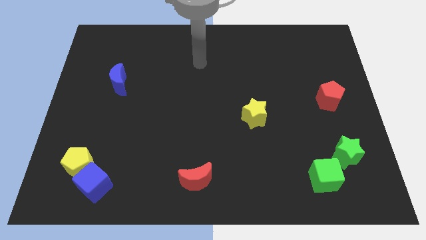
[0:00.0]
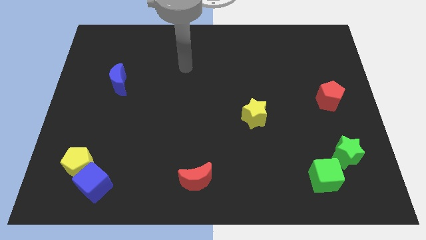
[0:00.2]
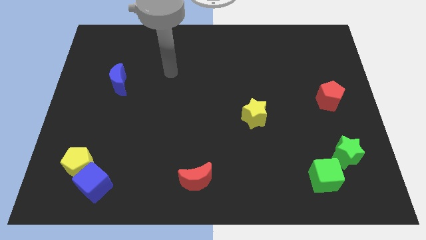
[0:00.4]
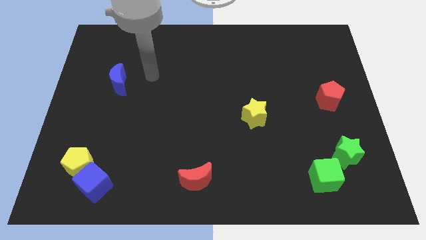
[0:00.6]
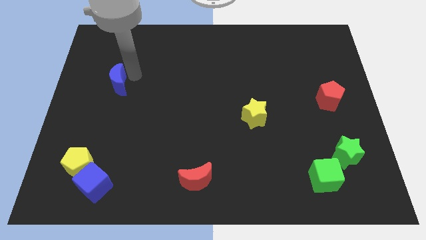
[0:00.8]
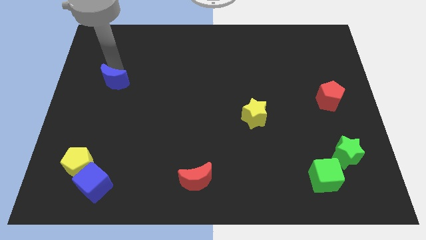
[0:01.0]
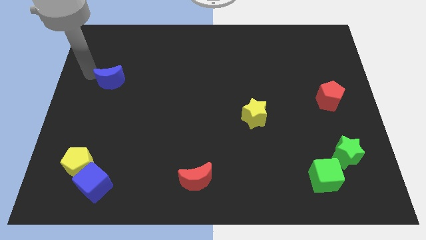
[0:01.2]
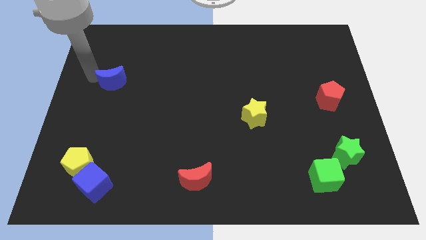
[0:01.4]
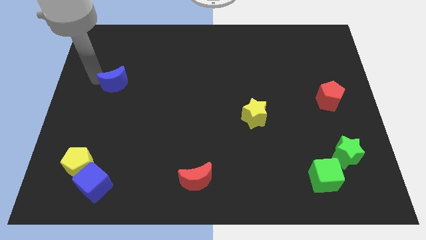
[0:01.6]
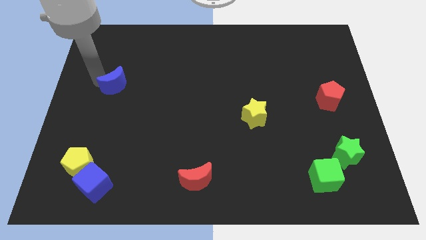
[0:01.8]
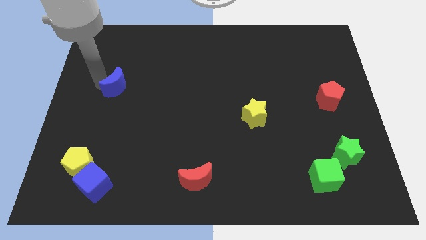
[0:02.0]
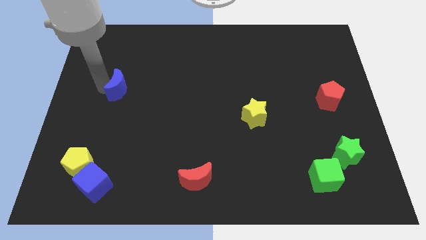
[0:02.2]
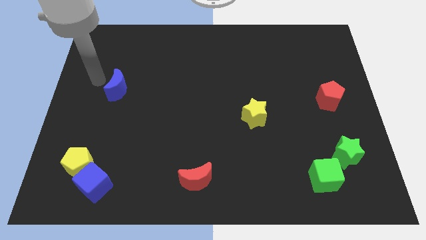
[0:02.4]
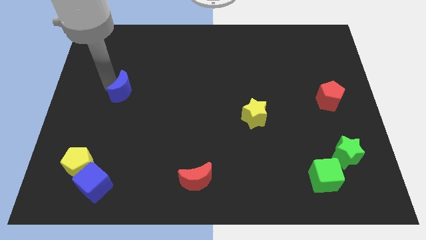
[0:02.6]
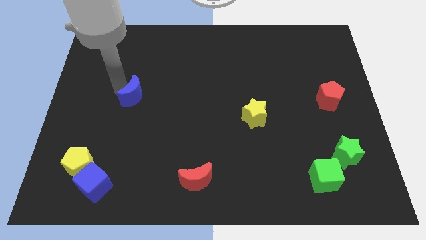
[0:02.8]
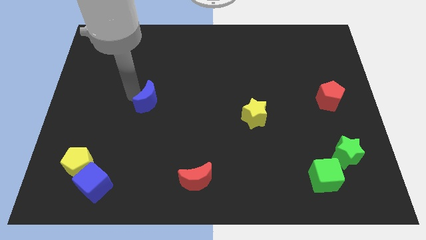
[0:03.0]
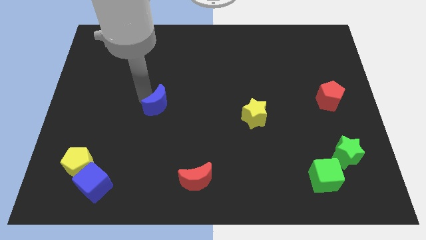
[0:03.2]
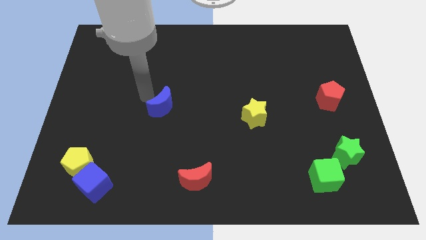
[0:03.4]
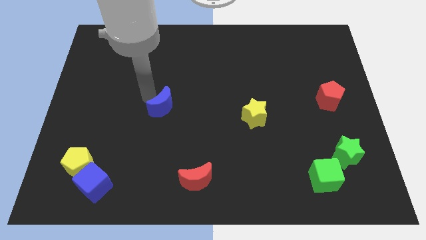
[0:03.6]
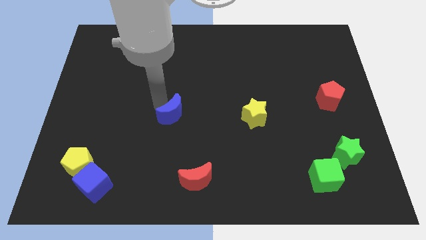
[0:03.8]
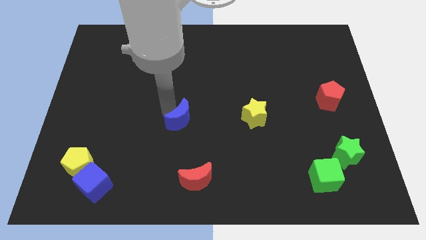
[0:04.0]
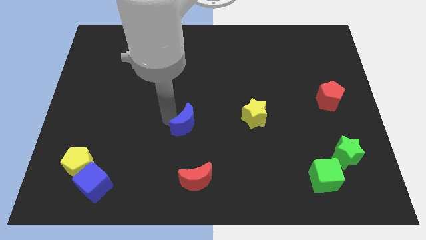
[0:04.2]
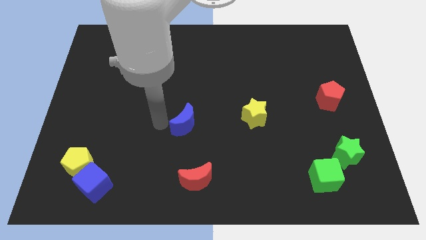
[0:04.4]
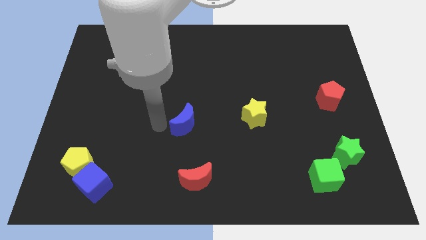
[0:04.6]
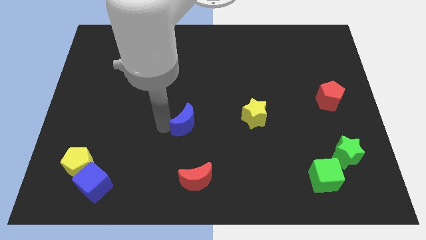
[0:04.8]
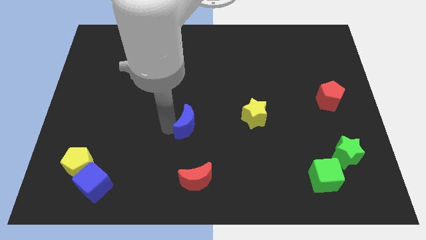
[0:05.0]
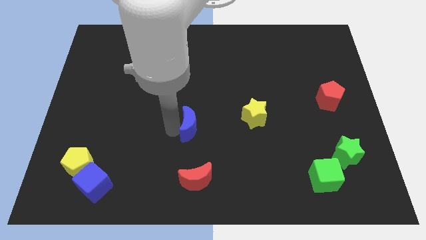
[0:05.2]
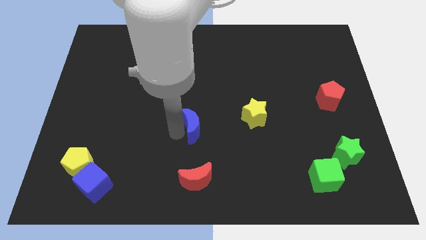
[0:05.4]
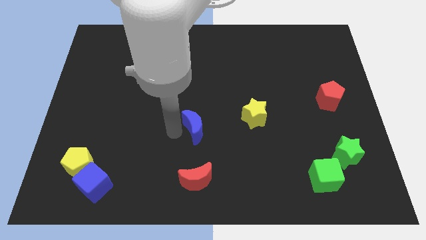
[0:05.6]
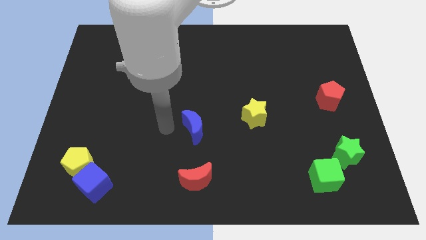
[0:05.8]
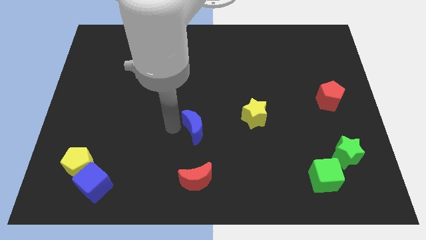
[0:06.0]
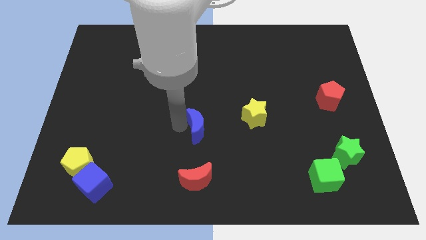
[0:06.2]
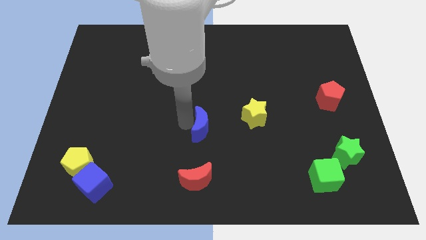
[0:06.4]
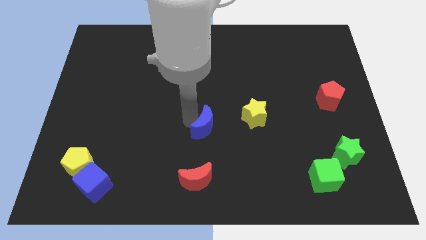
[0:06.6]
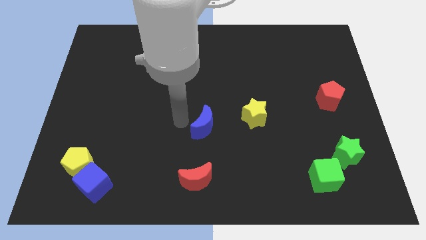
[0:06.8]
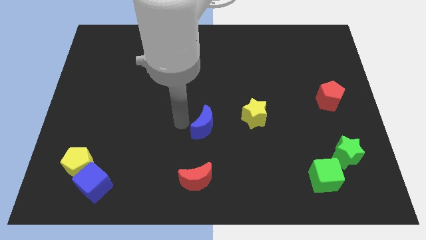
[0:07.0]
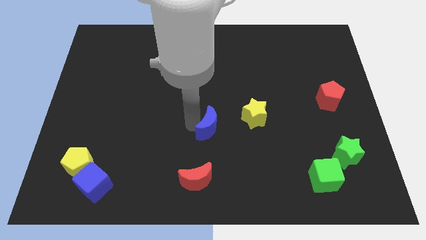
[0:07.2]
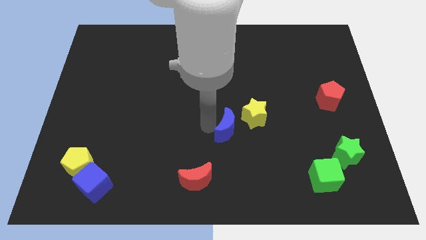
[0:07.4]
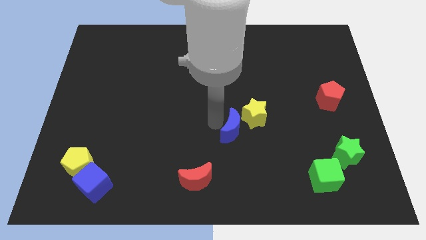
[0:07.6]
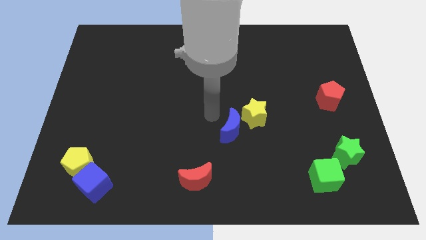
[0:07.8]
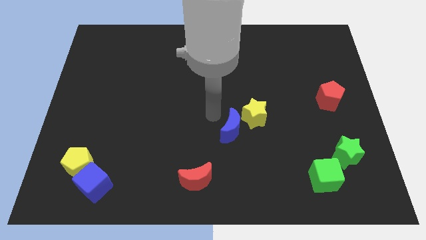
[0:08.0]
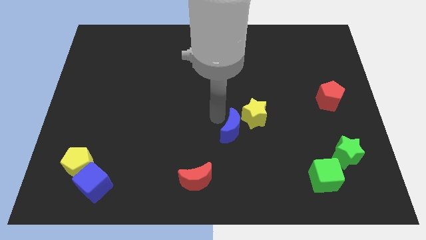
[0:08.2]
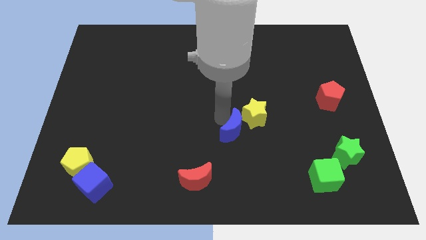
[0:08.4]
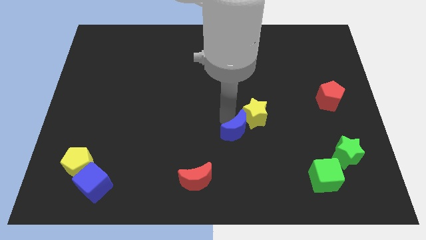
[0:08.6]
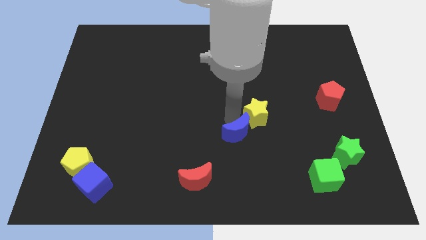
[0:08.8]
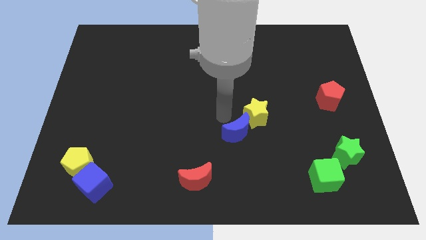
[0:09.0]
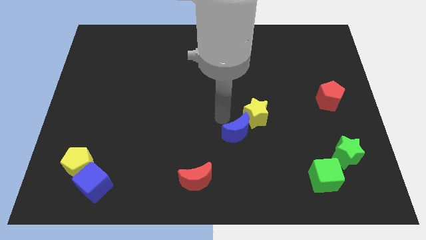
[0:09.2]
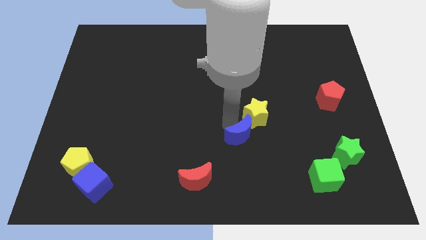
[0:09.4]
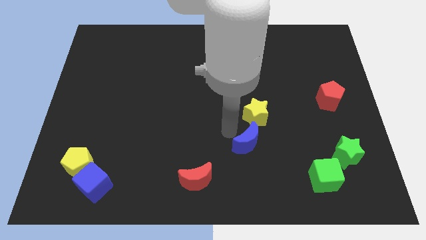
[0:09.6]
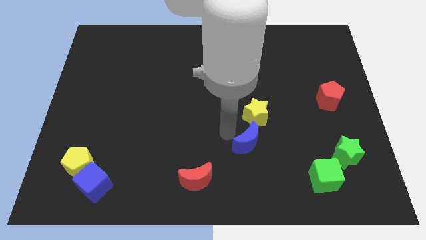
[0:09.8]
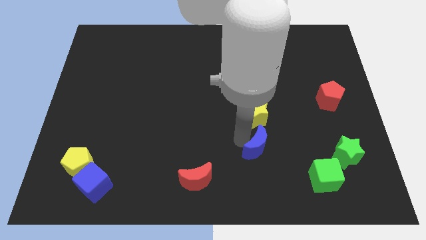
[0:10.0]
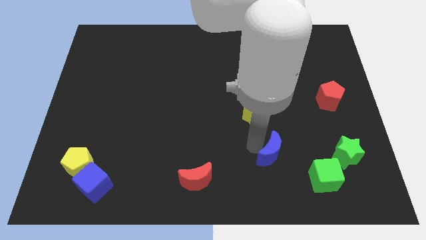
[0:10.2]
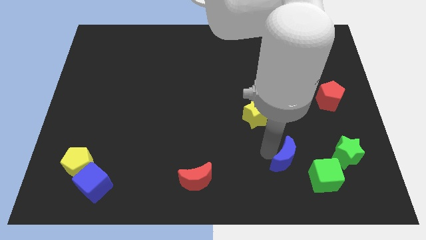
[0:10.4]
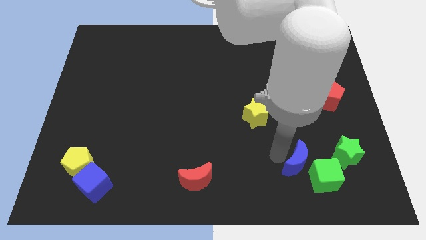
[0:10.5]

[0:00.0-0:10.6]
push the blue moon next to the green cube

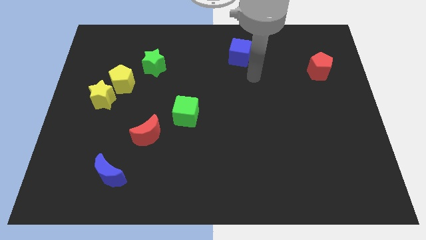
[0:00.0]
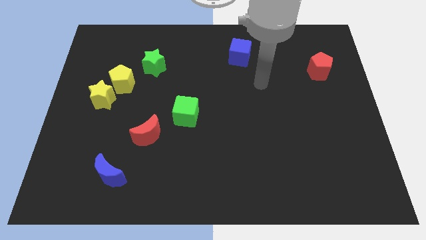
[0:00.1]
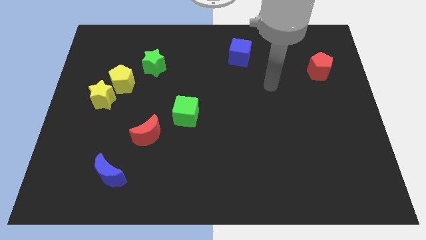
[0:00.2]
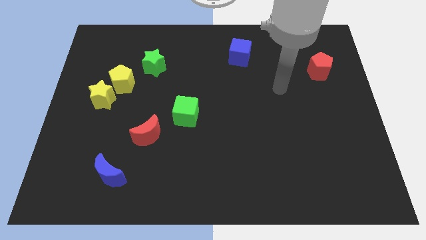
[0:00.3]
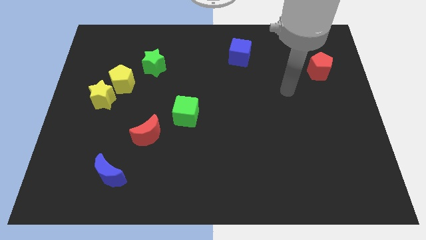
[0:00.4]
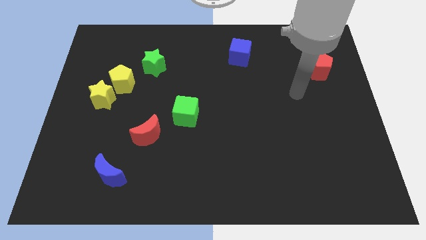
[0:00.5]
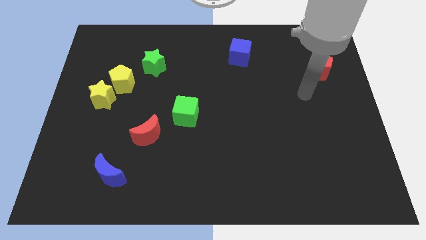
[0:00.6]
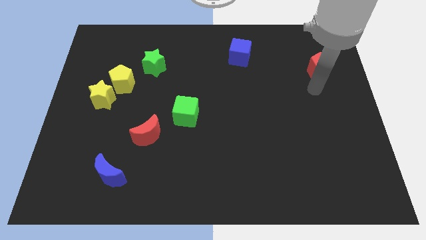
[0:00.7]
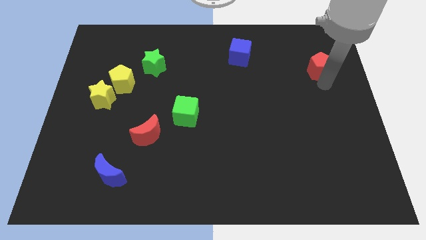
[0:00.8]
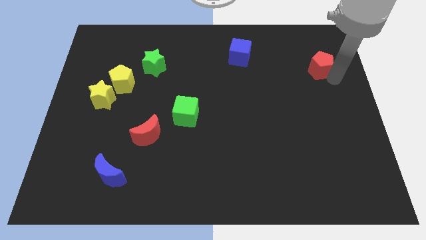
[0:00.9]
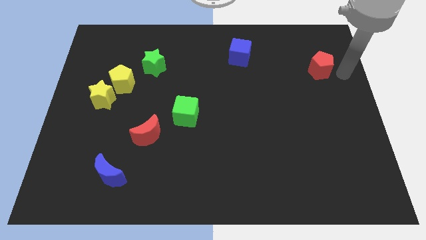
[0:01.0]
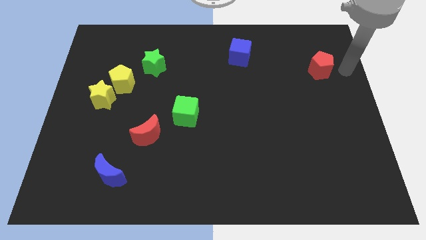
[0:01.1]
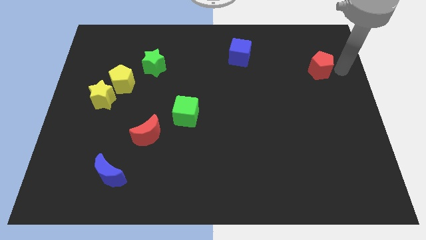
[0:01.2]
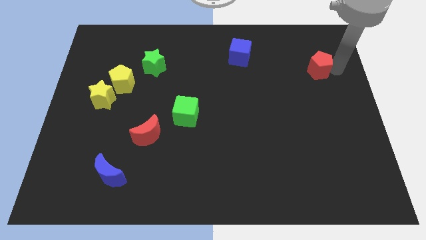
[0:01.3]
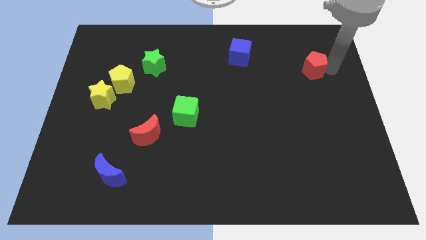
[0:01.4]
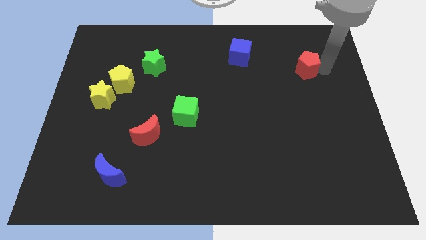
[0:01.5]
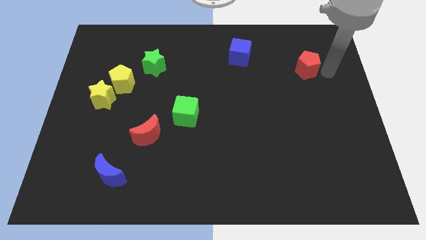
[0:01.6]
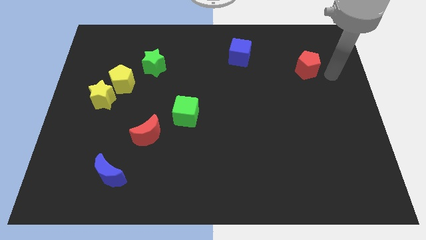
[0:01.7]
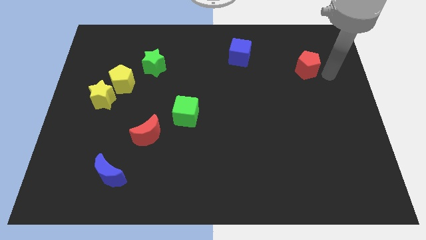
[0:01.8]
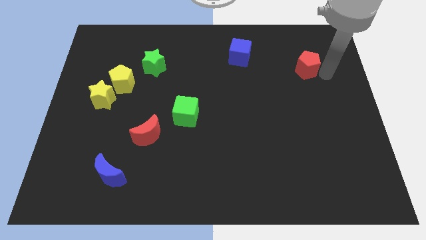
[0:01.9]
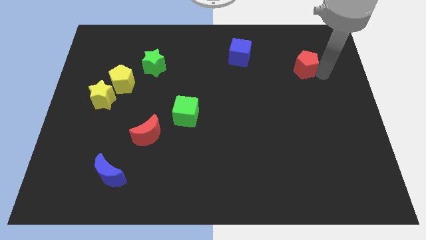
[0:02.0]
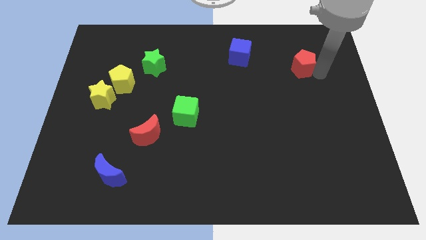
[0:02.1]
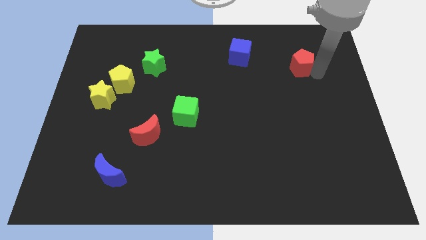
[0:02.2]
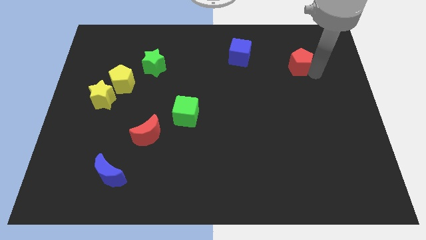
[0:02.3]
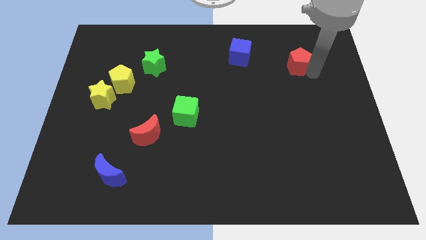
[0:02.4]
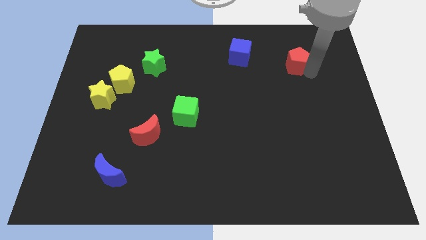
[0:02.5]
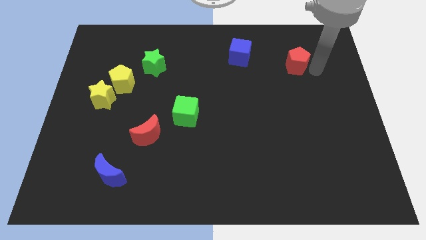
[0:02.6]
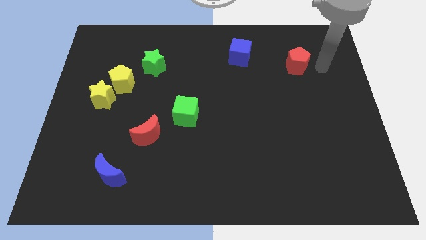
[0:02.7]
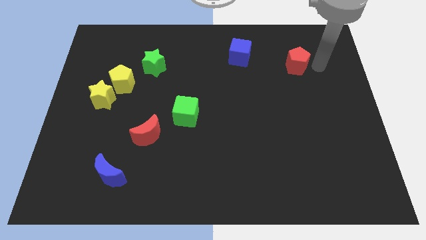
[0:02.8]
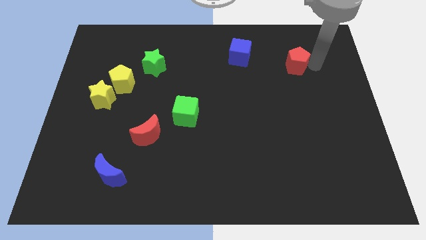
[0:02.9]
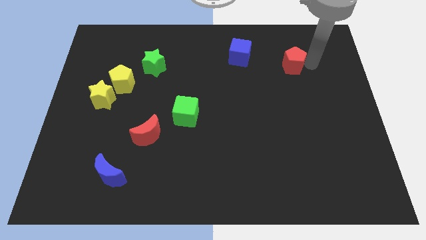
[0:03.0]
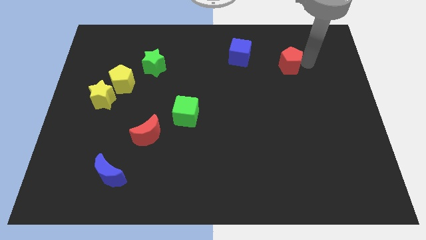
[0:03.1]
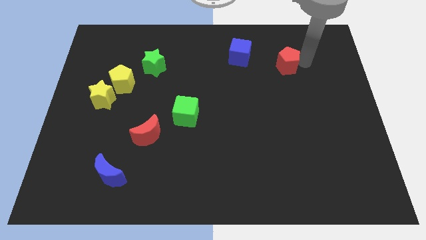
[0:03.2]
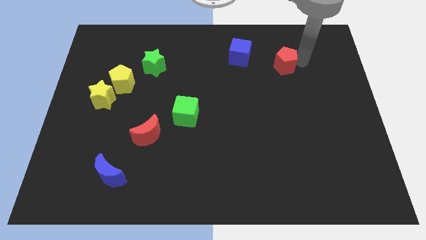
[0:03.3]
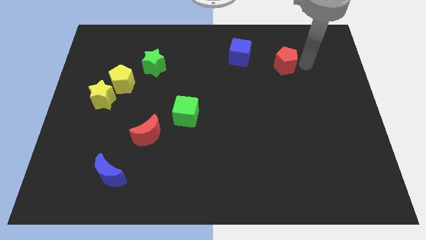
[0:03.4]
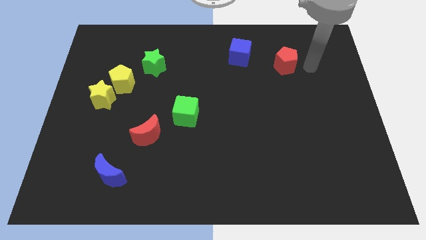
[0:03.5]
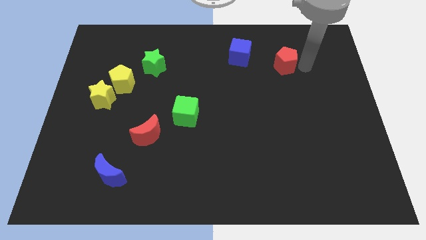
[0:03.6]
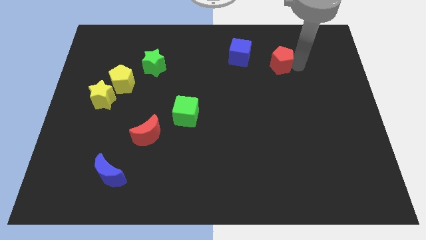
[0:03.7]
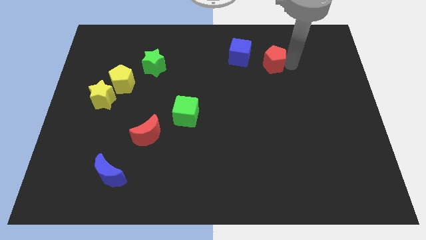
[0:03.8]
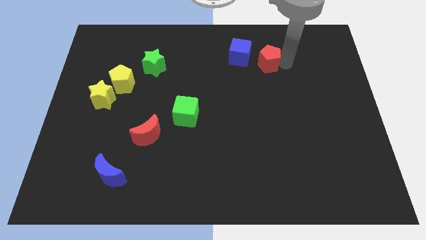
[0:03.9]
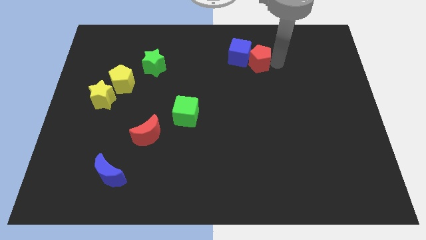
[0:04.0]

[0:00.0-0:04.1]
move the red pentagon to the blue cube
